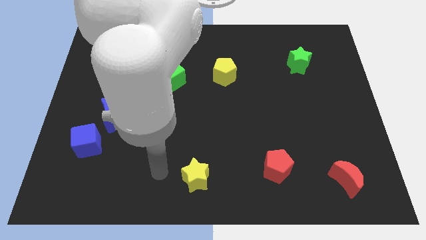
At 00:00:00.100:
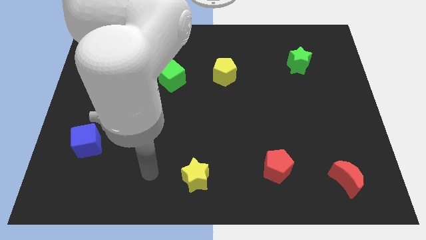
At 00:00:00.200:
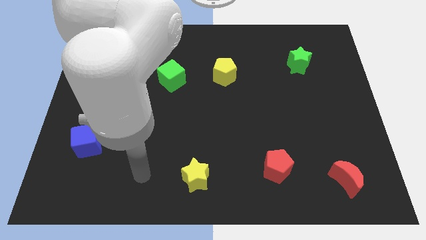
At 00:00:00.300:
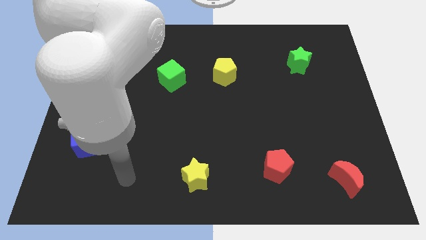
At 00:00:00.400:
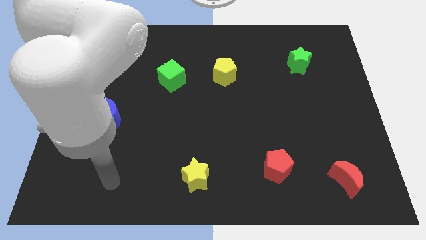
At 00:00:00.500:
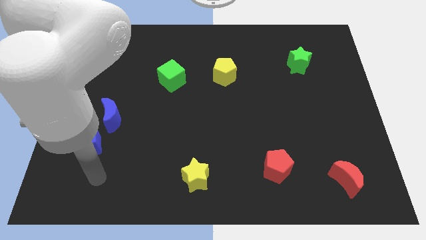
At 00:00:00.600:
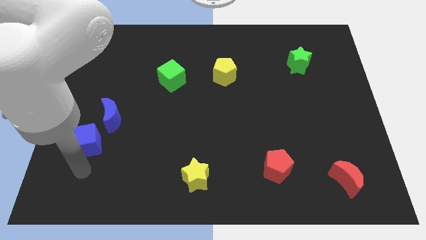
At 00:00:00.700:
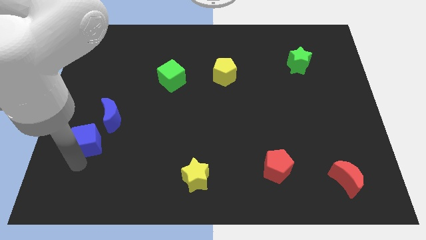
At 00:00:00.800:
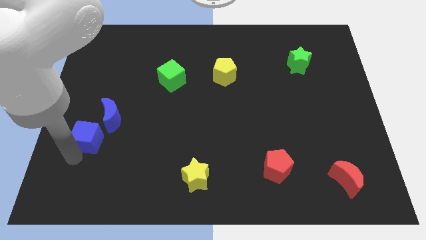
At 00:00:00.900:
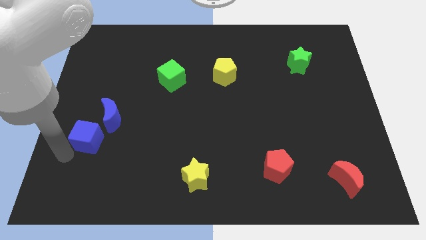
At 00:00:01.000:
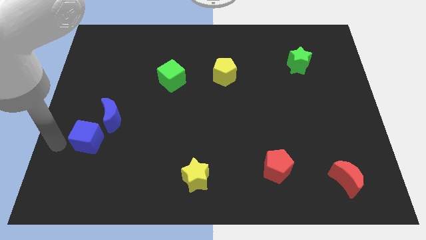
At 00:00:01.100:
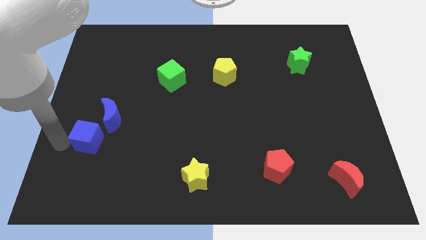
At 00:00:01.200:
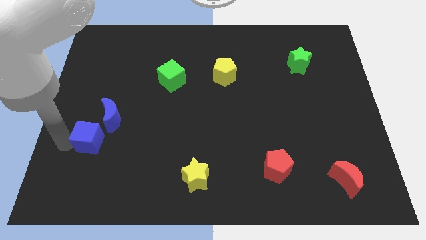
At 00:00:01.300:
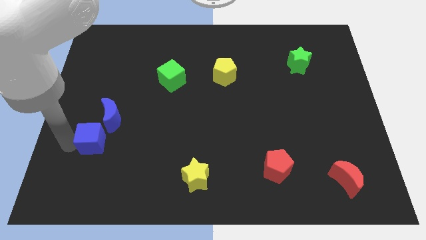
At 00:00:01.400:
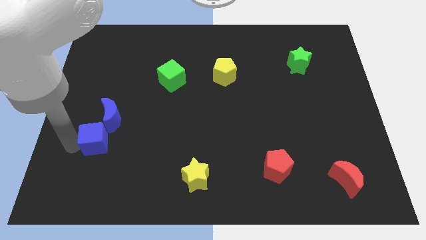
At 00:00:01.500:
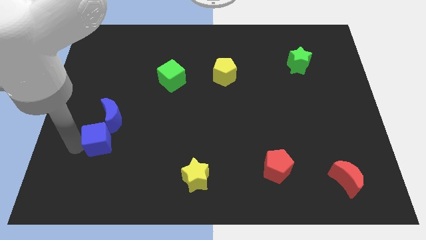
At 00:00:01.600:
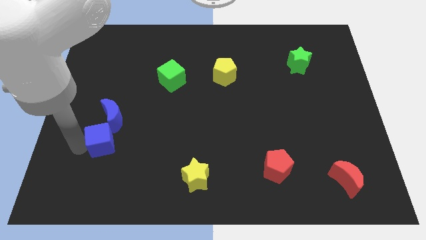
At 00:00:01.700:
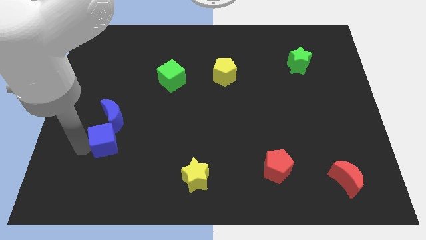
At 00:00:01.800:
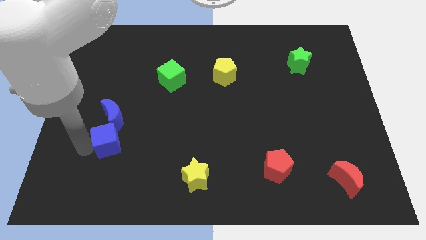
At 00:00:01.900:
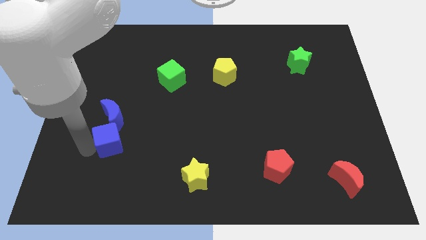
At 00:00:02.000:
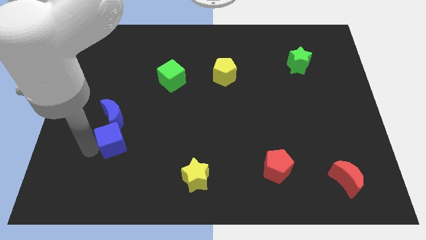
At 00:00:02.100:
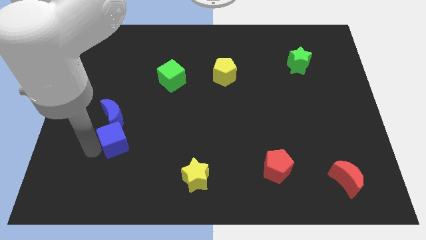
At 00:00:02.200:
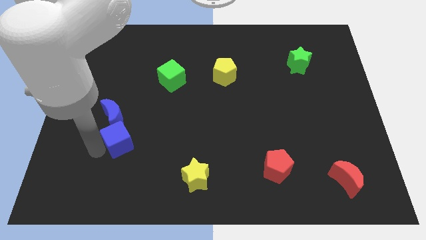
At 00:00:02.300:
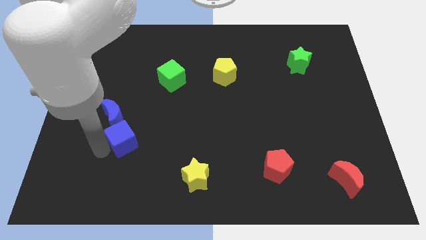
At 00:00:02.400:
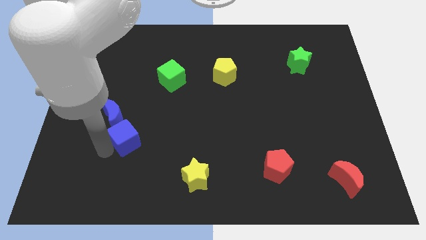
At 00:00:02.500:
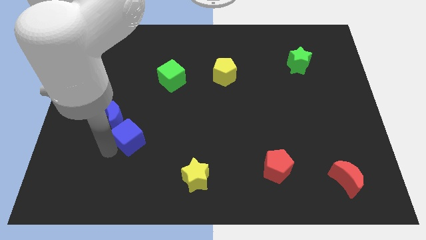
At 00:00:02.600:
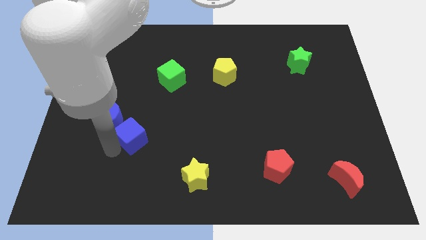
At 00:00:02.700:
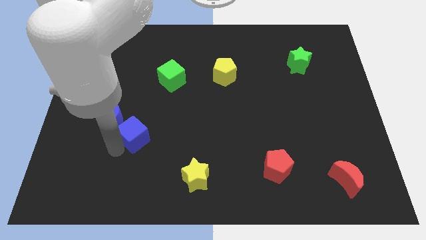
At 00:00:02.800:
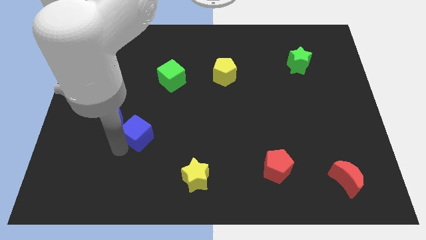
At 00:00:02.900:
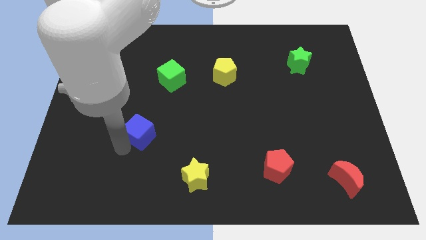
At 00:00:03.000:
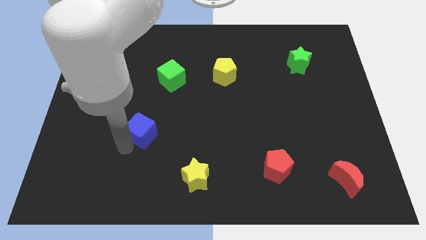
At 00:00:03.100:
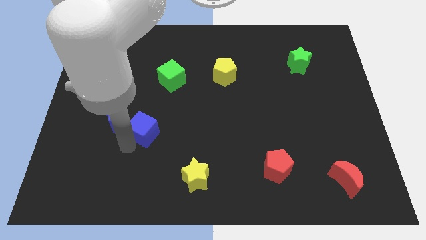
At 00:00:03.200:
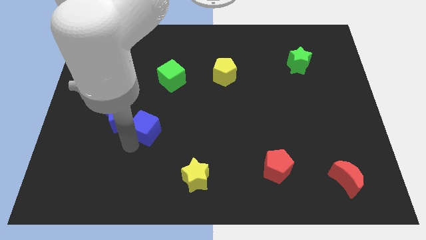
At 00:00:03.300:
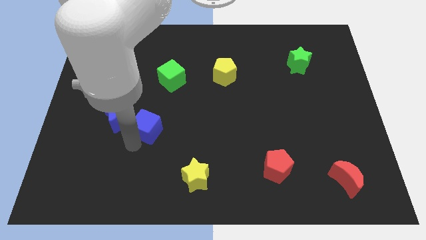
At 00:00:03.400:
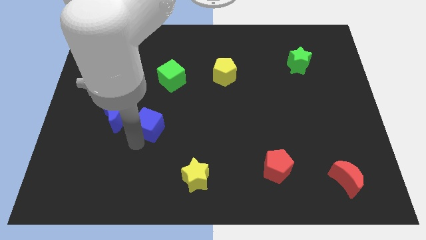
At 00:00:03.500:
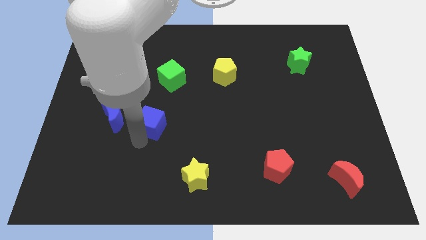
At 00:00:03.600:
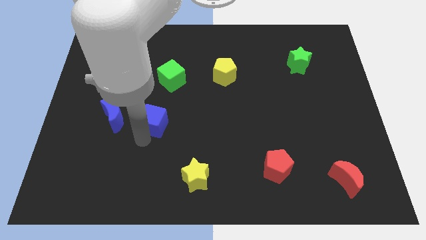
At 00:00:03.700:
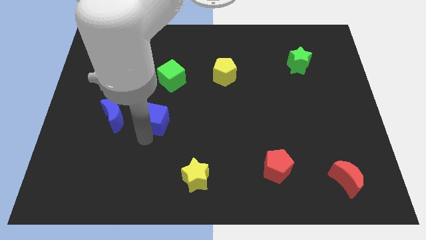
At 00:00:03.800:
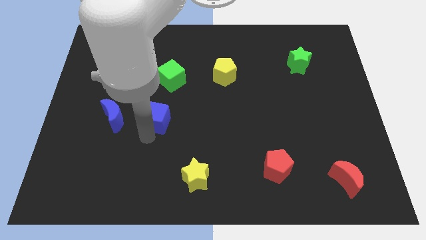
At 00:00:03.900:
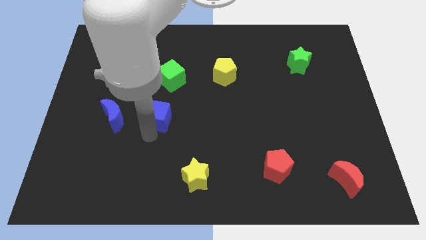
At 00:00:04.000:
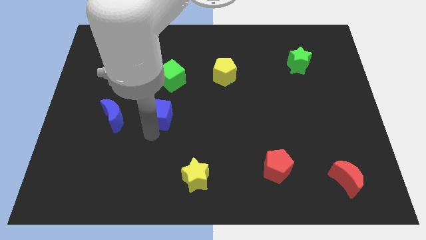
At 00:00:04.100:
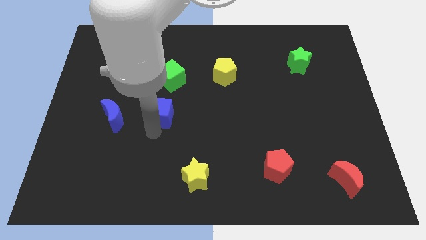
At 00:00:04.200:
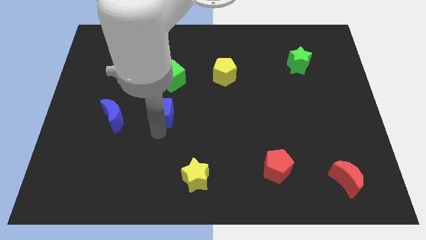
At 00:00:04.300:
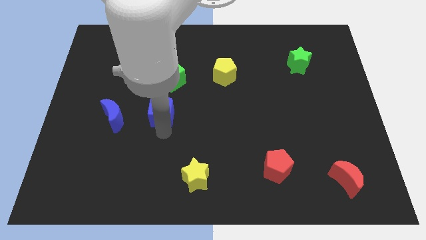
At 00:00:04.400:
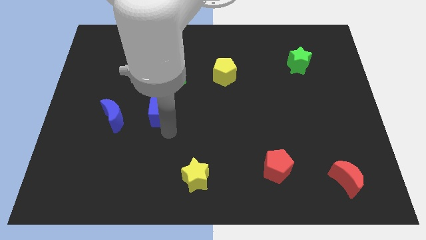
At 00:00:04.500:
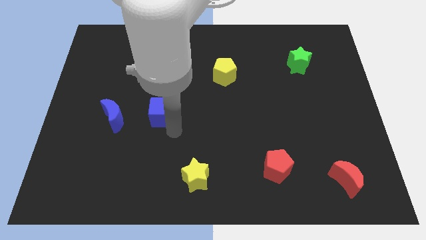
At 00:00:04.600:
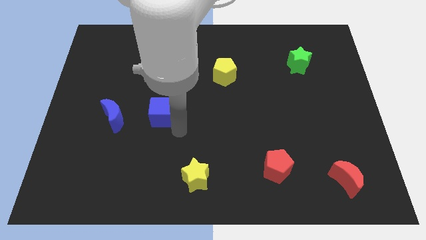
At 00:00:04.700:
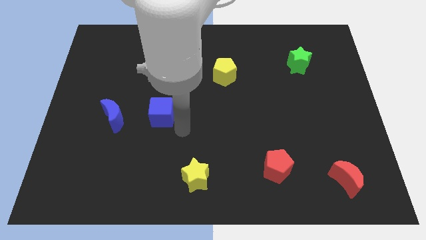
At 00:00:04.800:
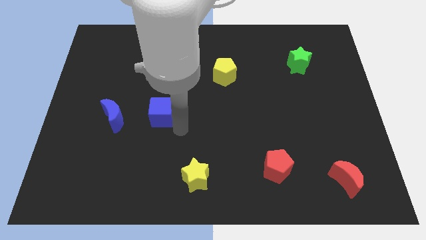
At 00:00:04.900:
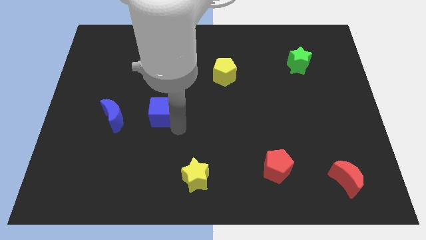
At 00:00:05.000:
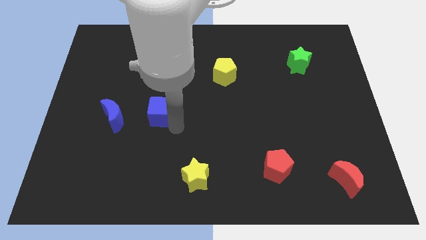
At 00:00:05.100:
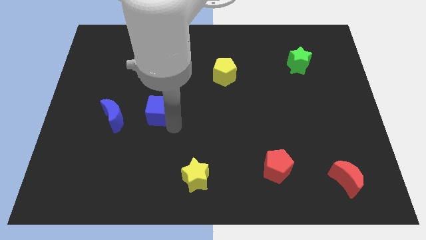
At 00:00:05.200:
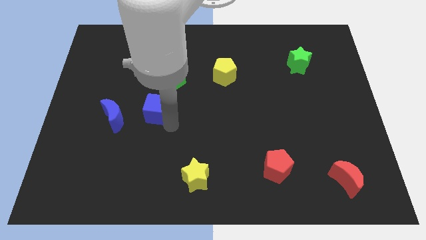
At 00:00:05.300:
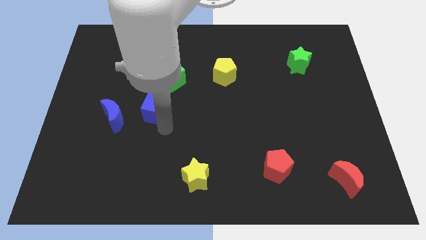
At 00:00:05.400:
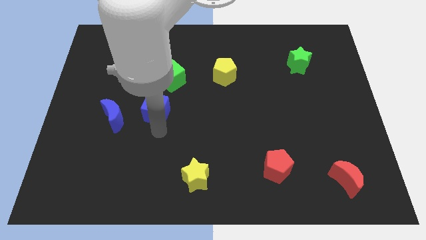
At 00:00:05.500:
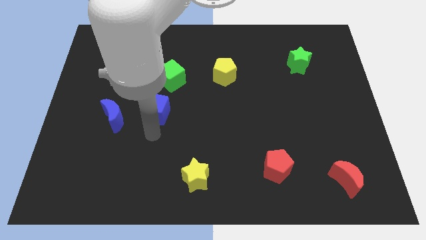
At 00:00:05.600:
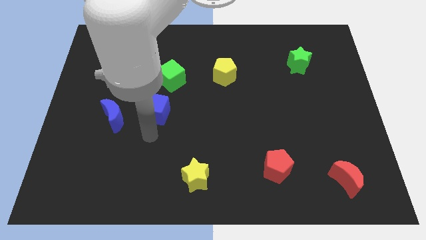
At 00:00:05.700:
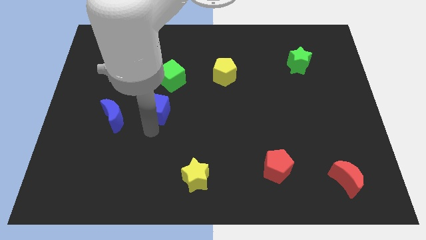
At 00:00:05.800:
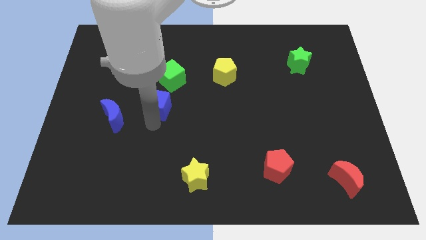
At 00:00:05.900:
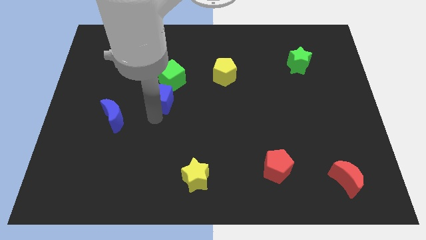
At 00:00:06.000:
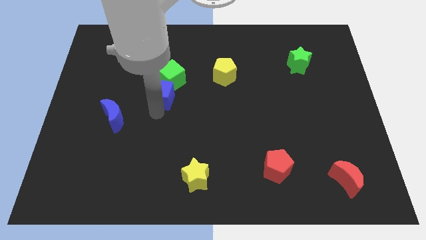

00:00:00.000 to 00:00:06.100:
put the blue cube to the green cube

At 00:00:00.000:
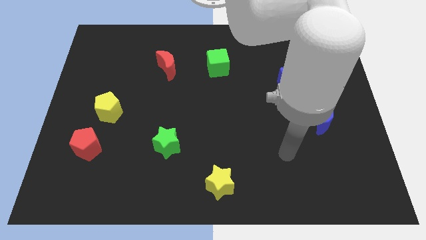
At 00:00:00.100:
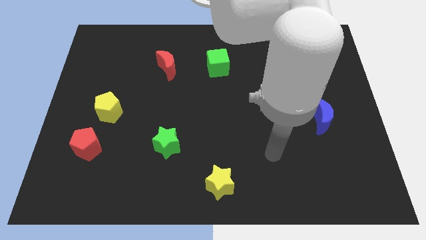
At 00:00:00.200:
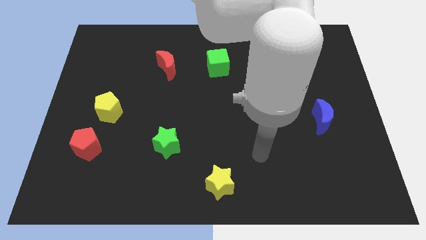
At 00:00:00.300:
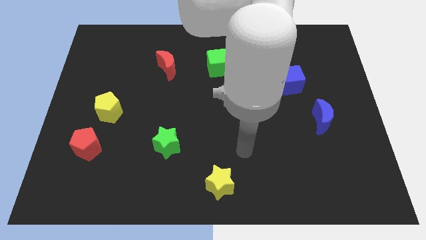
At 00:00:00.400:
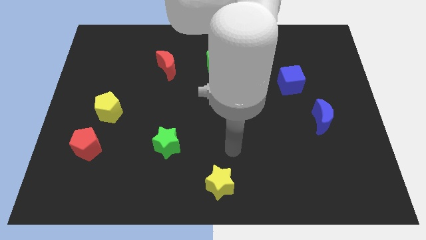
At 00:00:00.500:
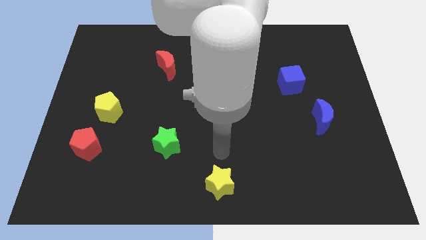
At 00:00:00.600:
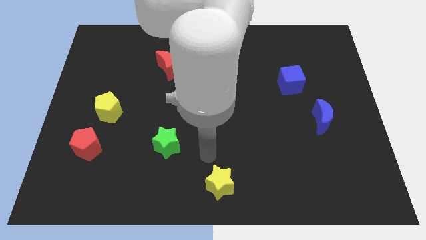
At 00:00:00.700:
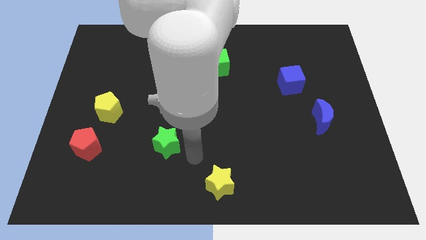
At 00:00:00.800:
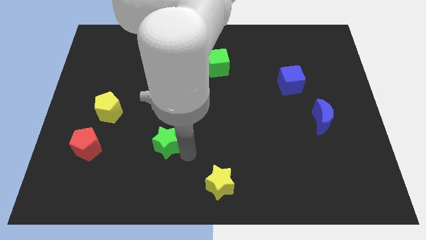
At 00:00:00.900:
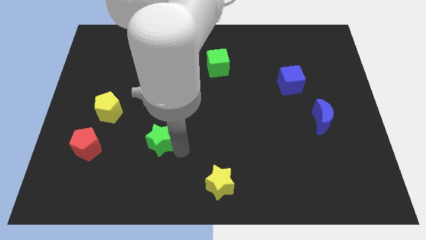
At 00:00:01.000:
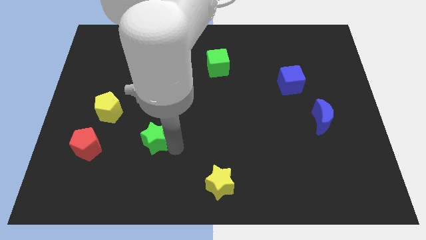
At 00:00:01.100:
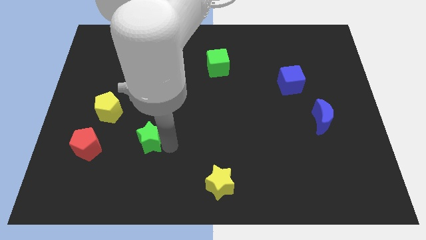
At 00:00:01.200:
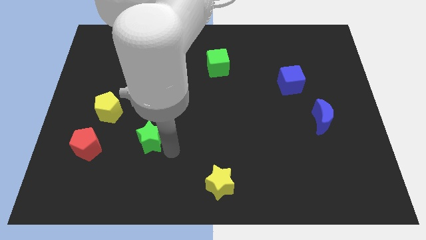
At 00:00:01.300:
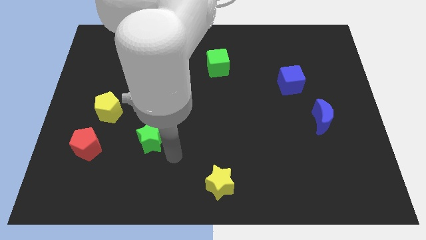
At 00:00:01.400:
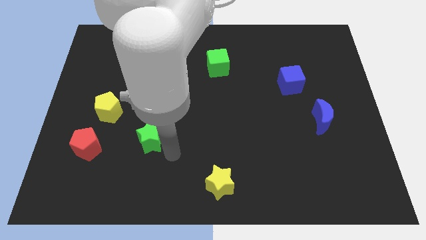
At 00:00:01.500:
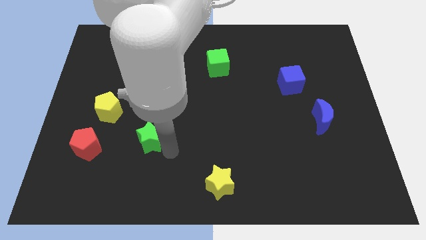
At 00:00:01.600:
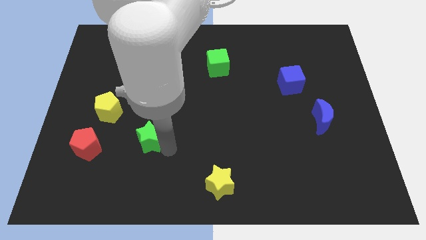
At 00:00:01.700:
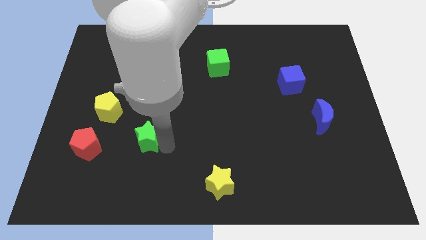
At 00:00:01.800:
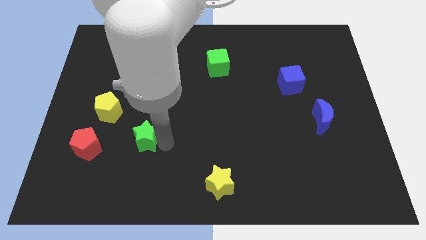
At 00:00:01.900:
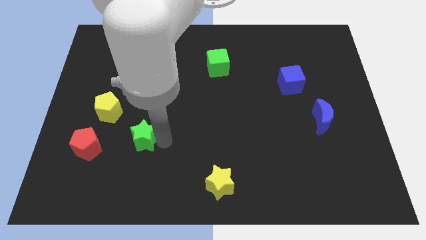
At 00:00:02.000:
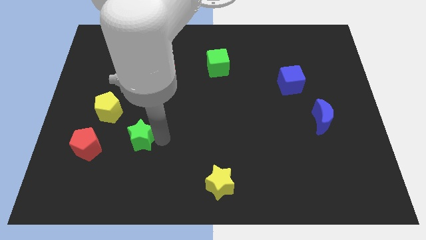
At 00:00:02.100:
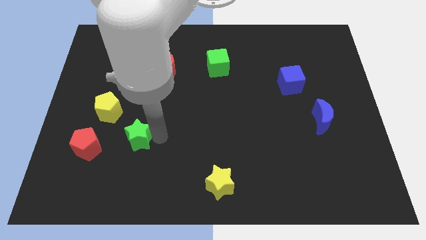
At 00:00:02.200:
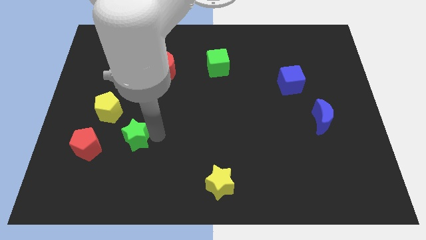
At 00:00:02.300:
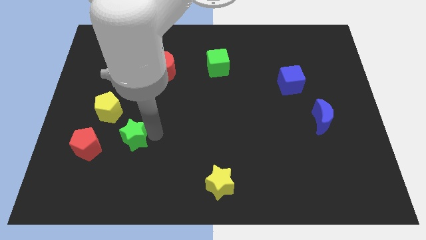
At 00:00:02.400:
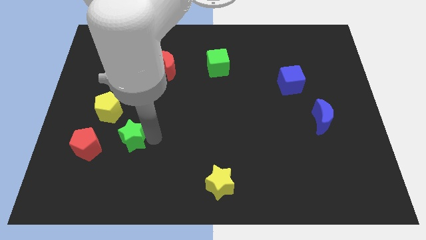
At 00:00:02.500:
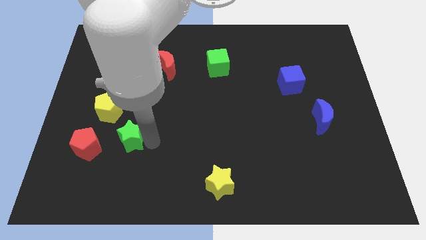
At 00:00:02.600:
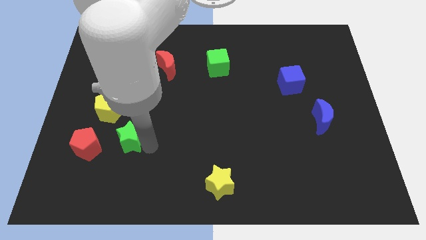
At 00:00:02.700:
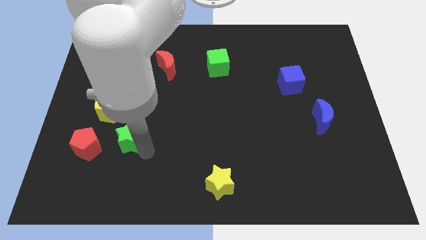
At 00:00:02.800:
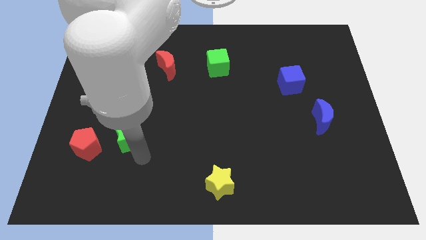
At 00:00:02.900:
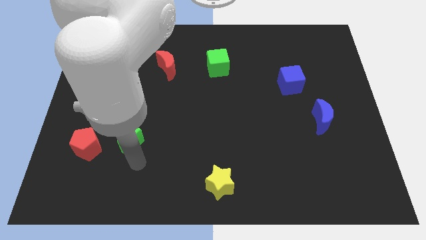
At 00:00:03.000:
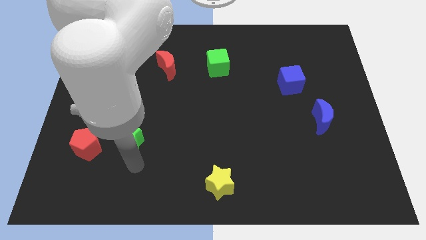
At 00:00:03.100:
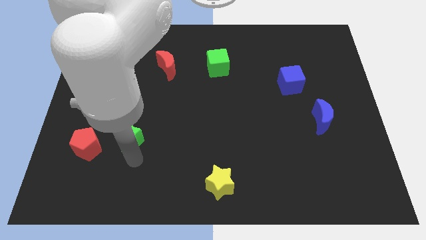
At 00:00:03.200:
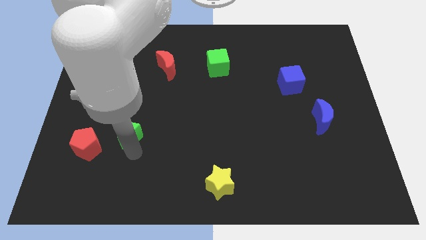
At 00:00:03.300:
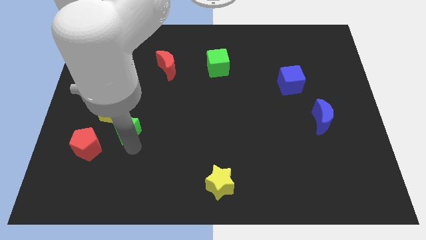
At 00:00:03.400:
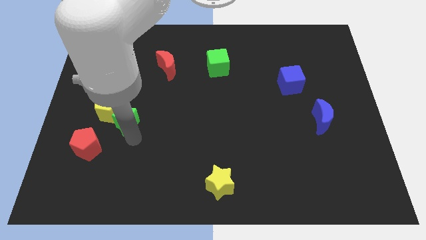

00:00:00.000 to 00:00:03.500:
push the green star towards the yellow pentagon
